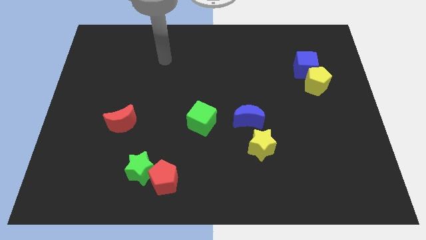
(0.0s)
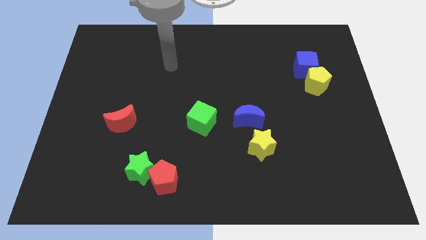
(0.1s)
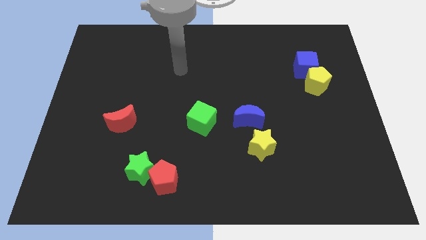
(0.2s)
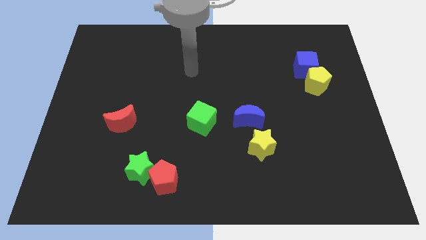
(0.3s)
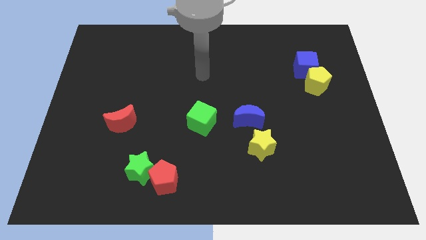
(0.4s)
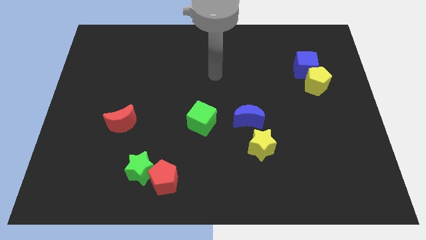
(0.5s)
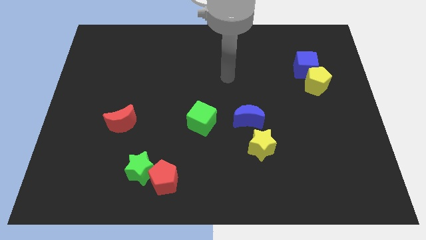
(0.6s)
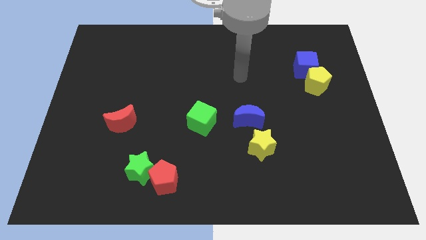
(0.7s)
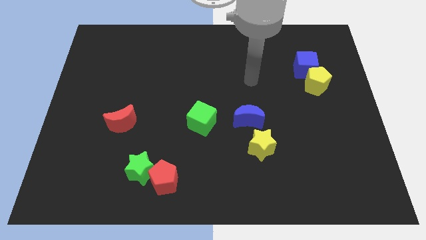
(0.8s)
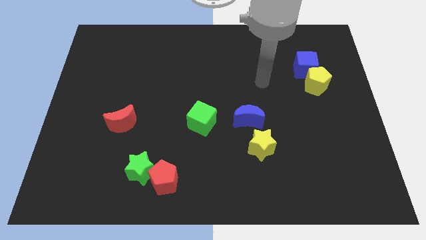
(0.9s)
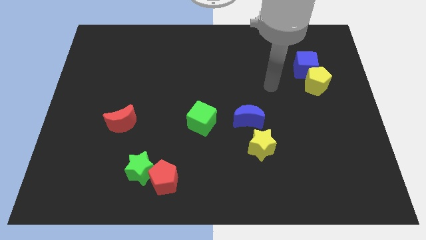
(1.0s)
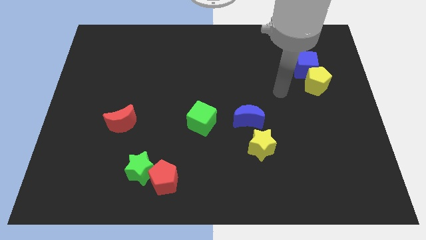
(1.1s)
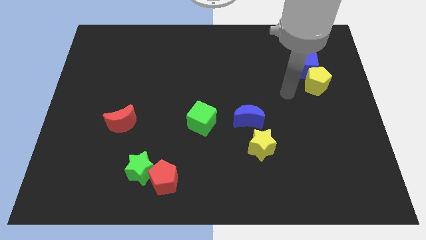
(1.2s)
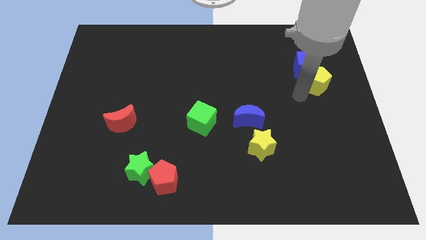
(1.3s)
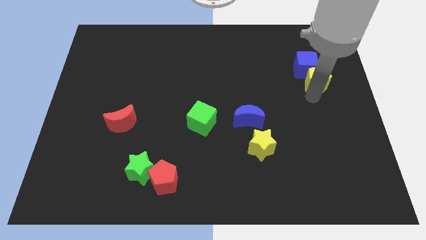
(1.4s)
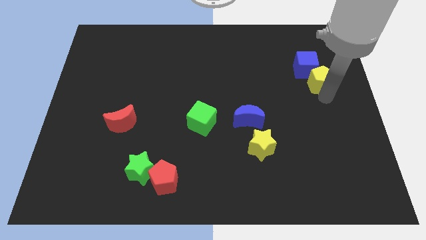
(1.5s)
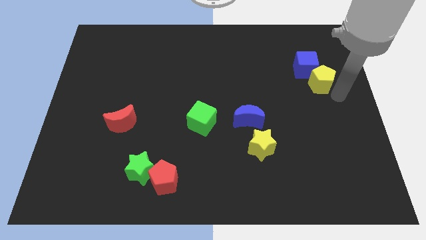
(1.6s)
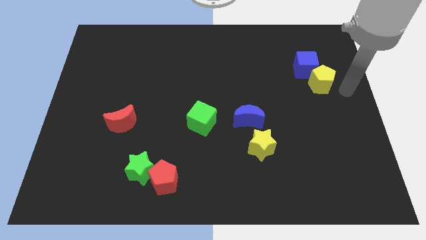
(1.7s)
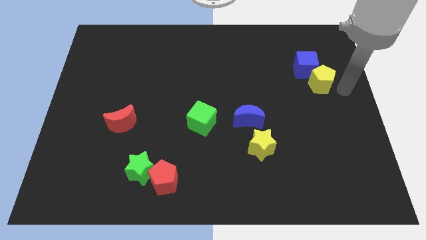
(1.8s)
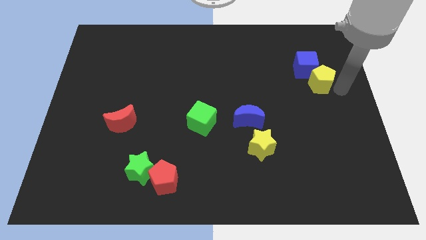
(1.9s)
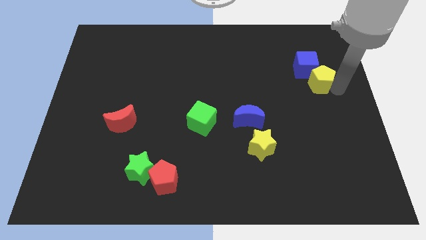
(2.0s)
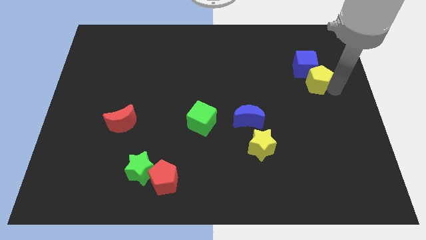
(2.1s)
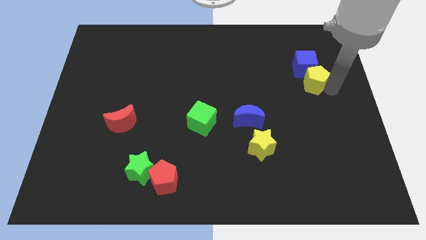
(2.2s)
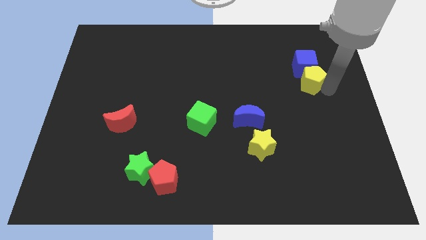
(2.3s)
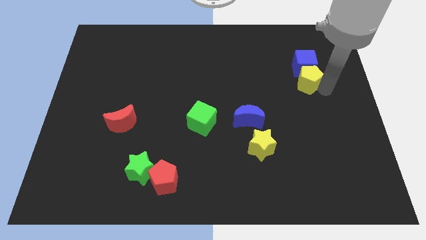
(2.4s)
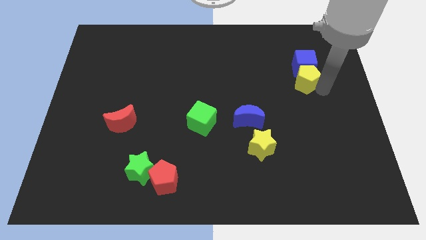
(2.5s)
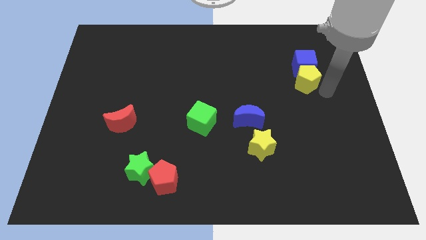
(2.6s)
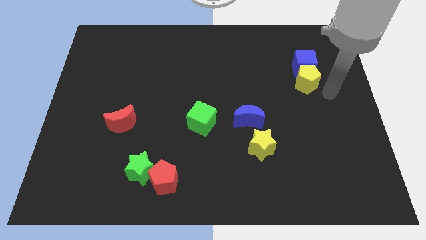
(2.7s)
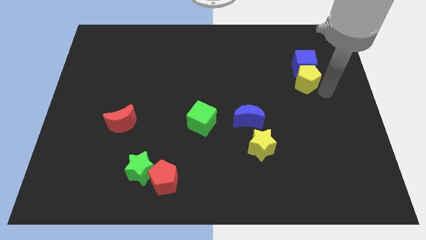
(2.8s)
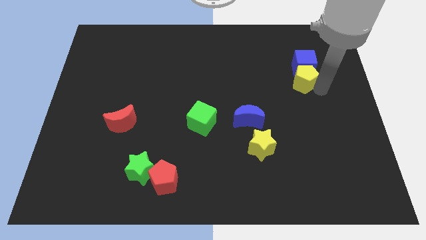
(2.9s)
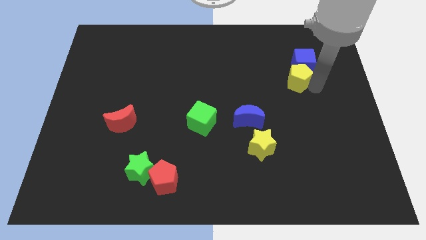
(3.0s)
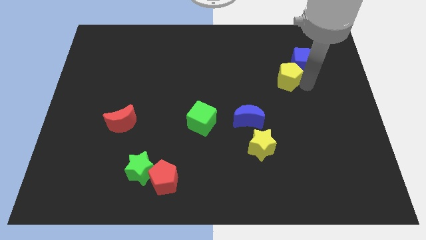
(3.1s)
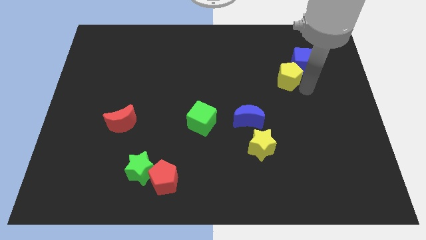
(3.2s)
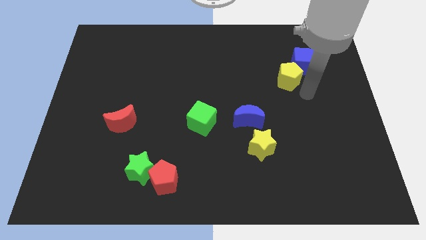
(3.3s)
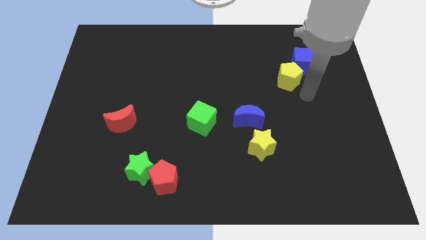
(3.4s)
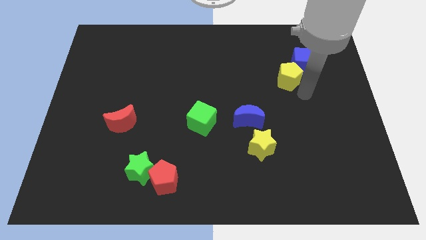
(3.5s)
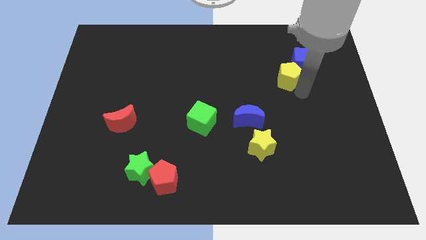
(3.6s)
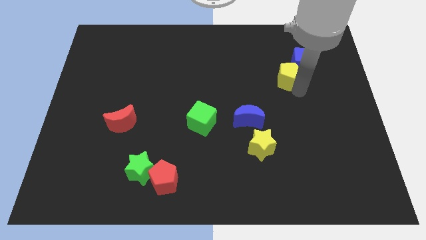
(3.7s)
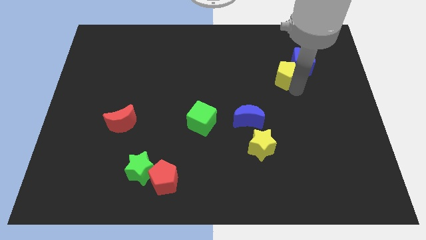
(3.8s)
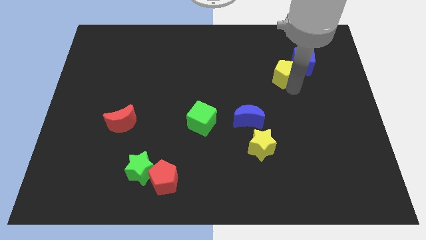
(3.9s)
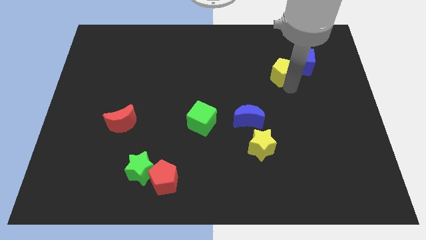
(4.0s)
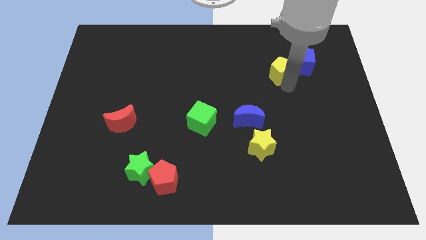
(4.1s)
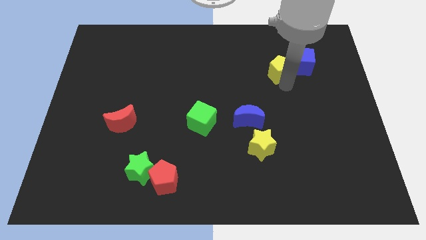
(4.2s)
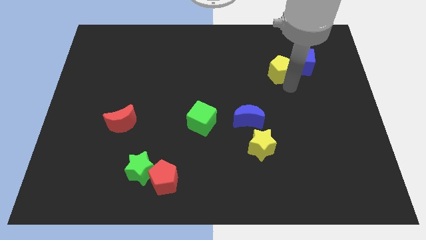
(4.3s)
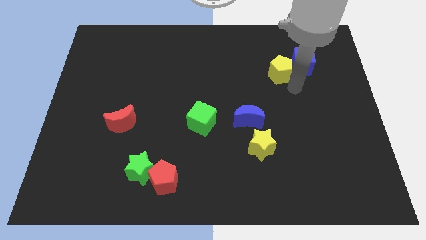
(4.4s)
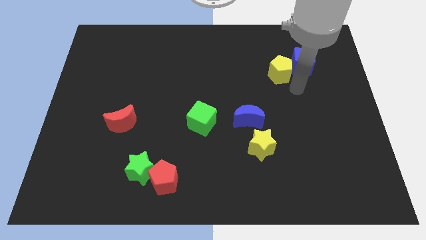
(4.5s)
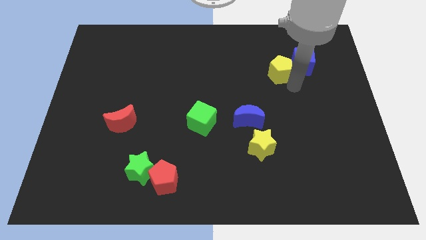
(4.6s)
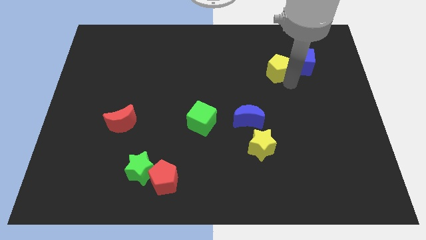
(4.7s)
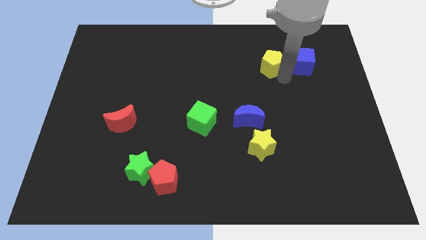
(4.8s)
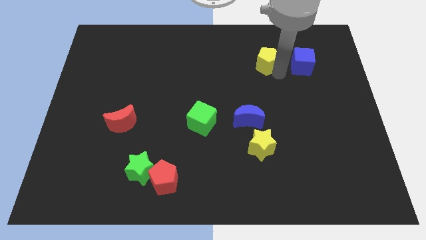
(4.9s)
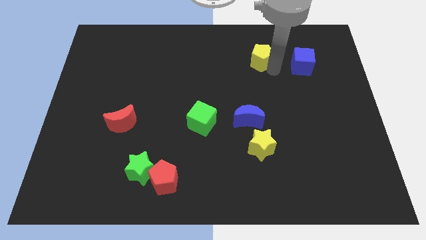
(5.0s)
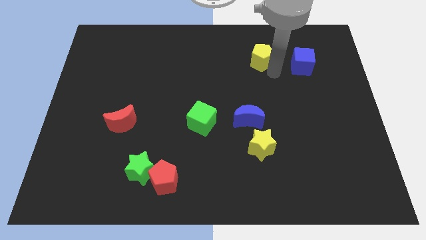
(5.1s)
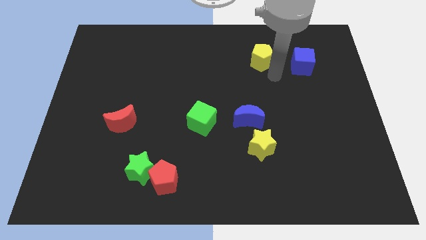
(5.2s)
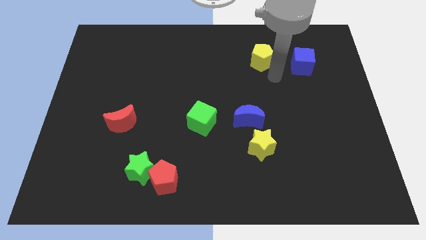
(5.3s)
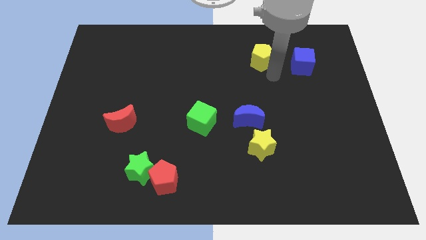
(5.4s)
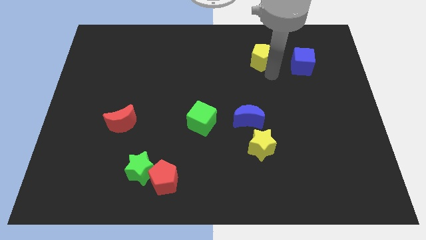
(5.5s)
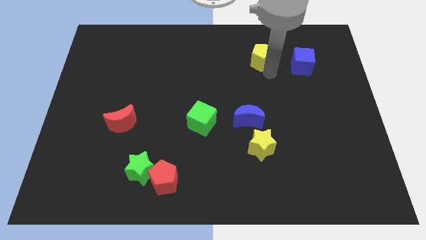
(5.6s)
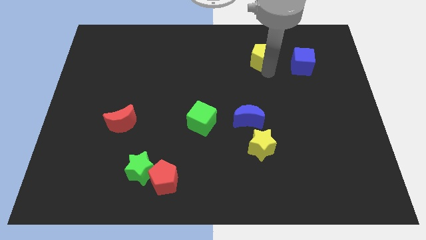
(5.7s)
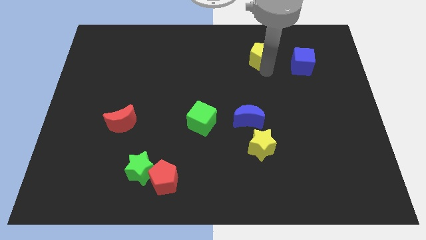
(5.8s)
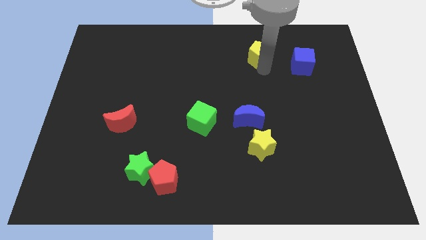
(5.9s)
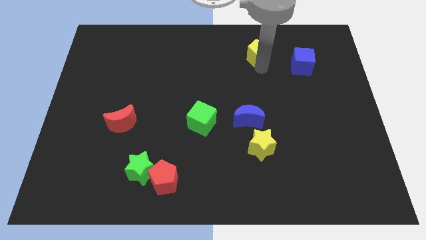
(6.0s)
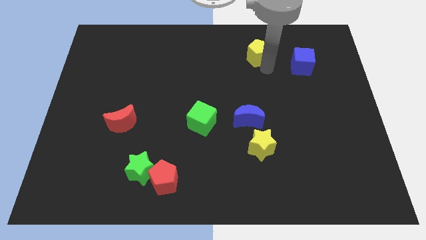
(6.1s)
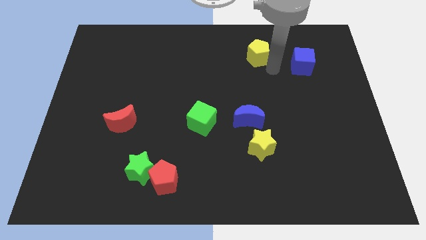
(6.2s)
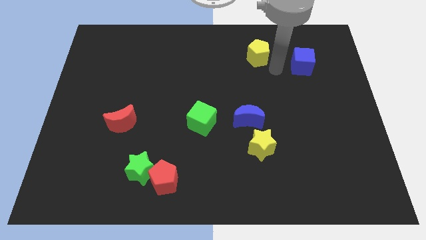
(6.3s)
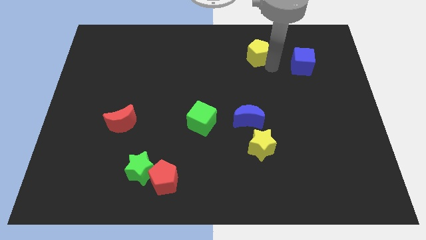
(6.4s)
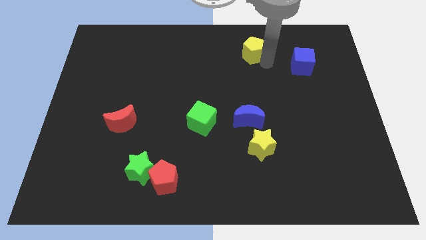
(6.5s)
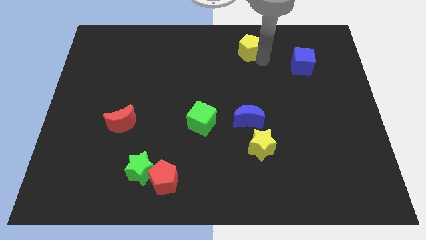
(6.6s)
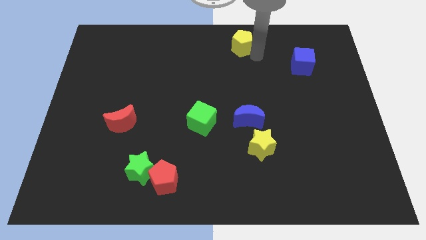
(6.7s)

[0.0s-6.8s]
put the yellow pentagon to the towards your base
